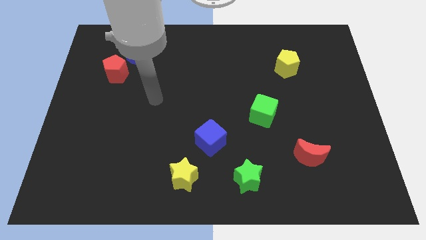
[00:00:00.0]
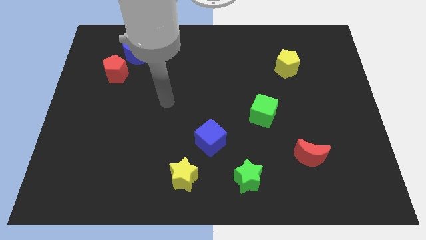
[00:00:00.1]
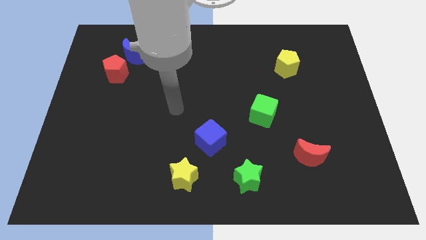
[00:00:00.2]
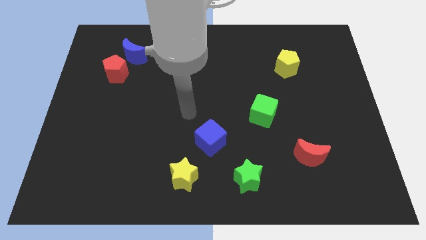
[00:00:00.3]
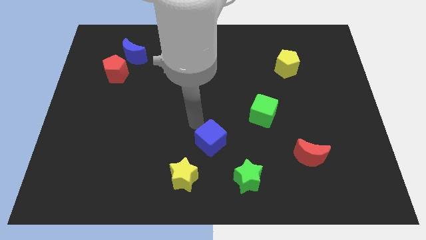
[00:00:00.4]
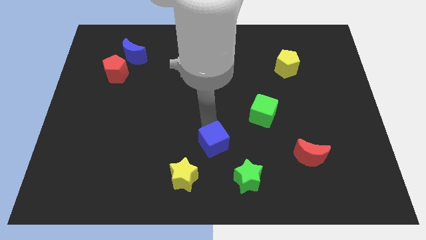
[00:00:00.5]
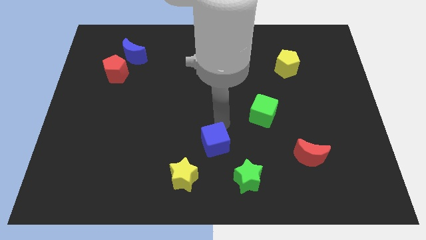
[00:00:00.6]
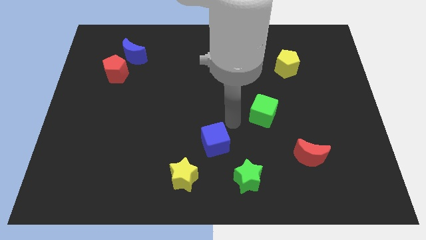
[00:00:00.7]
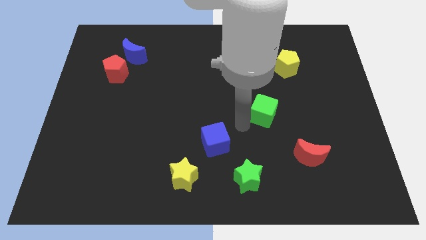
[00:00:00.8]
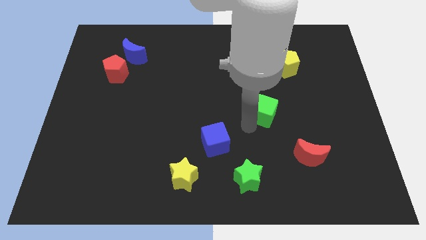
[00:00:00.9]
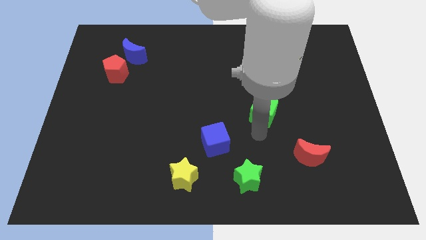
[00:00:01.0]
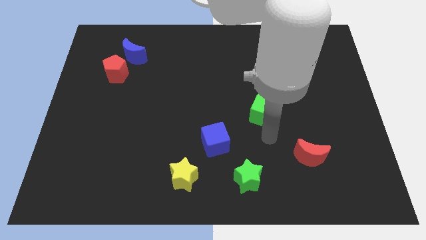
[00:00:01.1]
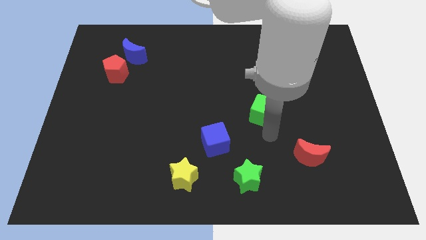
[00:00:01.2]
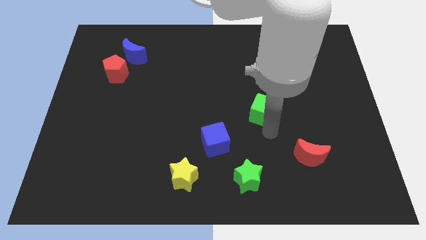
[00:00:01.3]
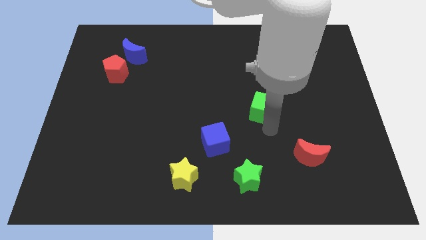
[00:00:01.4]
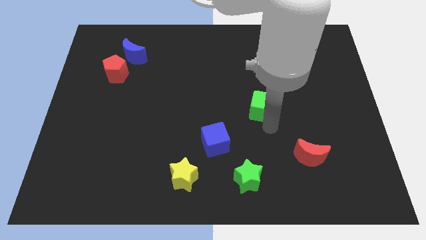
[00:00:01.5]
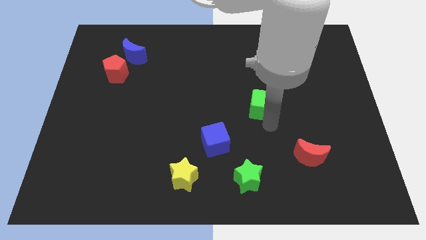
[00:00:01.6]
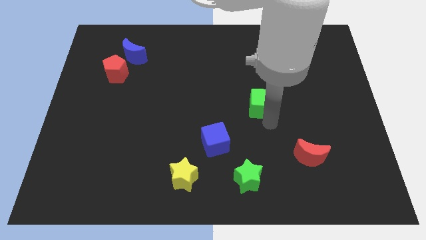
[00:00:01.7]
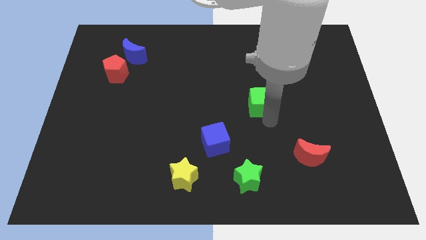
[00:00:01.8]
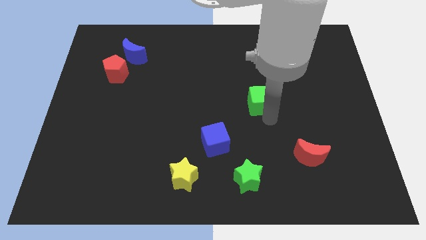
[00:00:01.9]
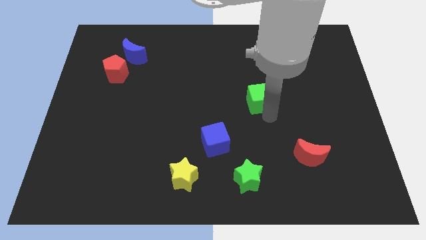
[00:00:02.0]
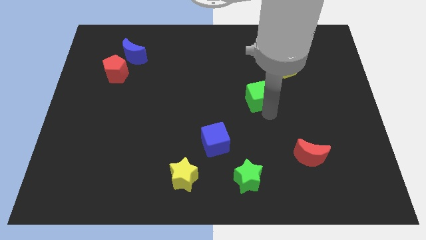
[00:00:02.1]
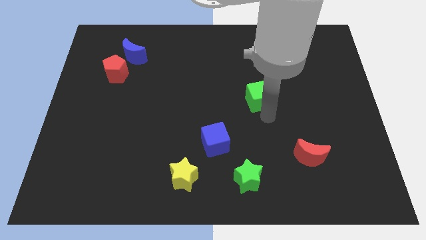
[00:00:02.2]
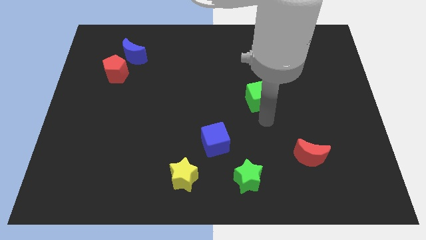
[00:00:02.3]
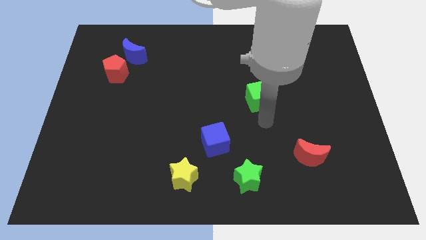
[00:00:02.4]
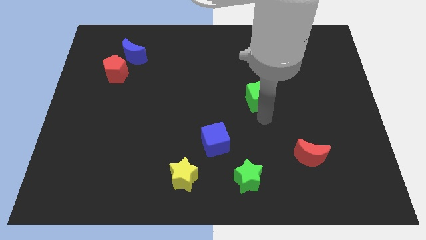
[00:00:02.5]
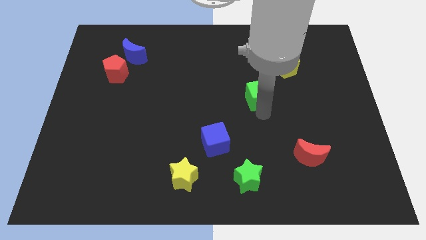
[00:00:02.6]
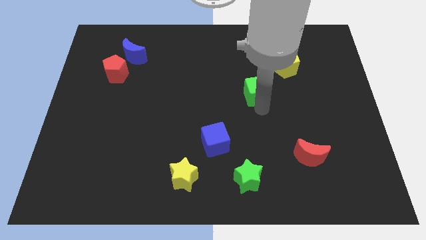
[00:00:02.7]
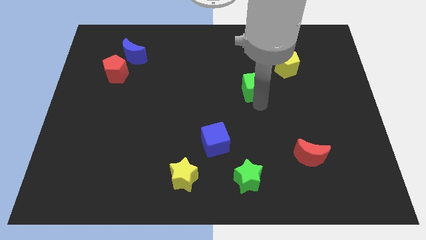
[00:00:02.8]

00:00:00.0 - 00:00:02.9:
slide the green cube somewhat up

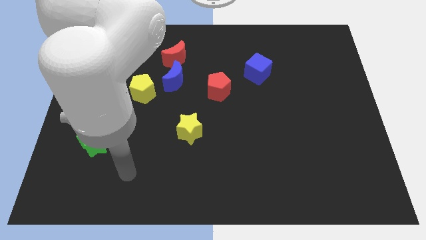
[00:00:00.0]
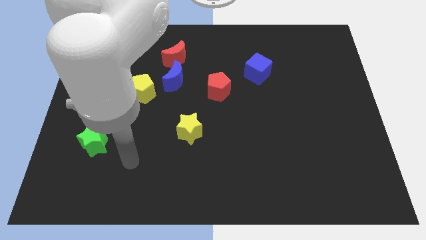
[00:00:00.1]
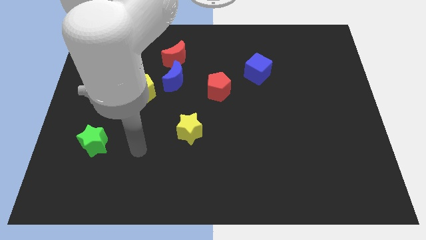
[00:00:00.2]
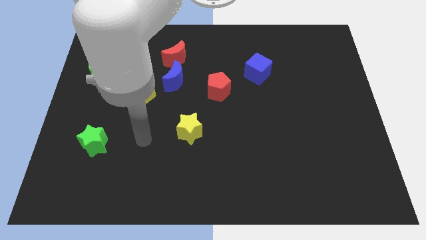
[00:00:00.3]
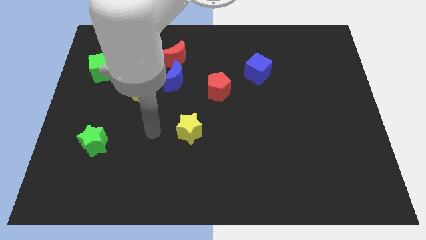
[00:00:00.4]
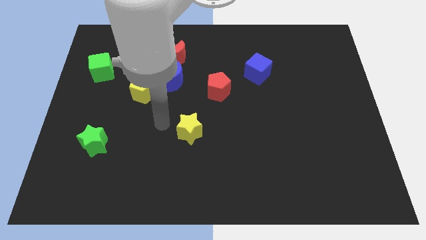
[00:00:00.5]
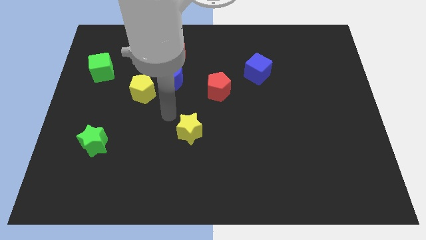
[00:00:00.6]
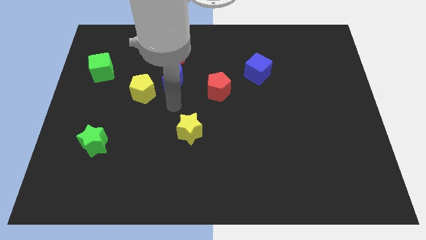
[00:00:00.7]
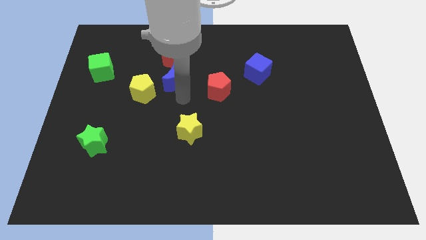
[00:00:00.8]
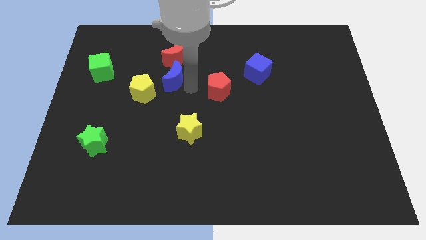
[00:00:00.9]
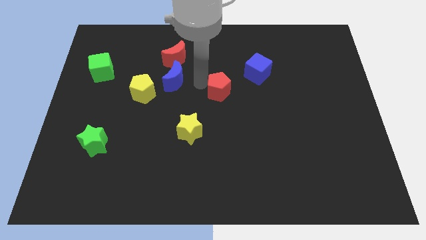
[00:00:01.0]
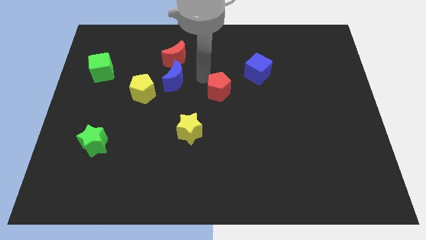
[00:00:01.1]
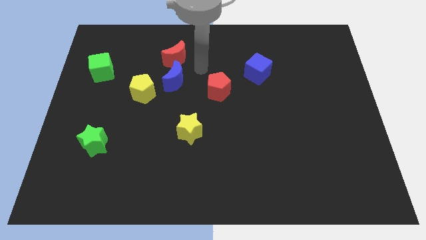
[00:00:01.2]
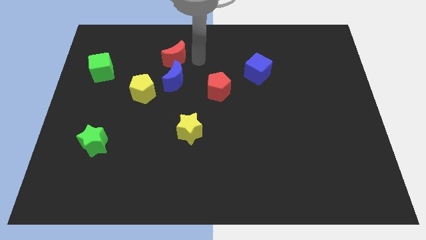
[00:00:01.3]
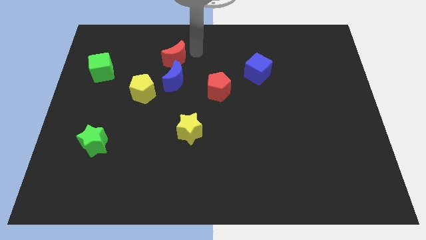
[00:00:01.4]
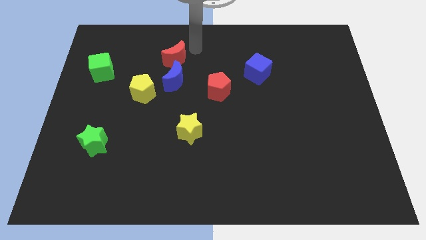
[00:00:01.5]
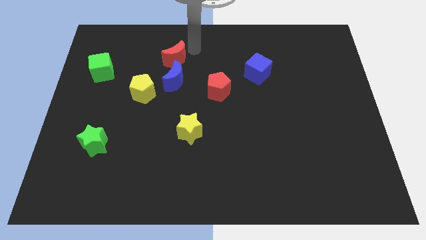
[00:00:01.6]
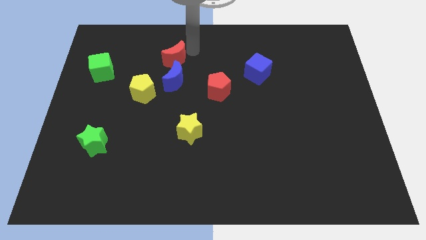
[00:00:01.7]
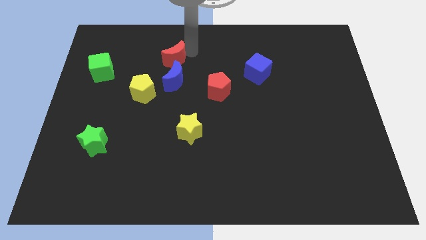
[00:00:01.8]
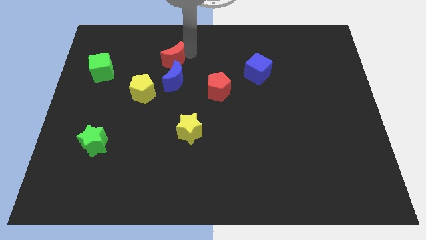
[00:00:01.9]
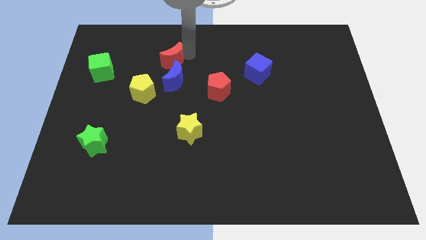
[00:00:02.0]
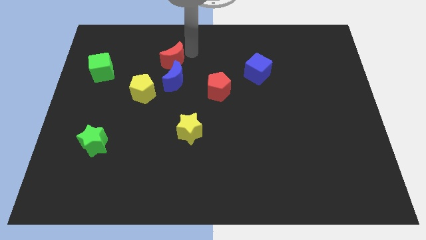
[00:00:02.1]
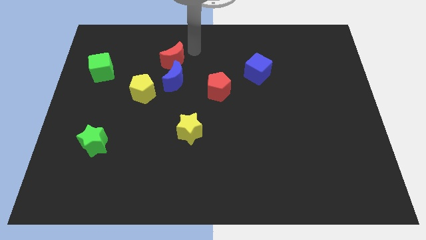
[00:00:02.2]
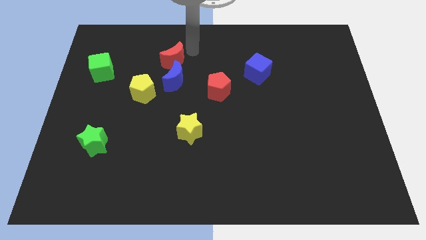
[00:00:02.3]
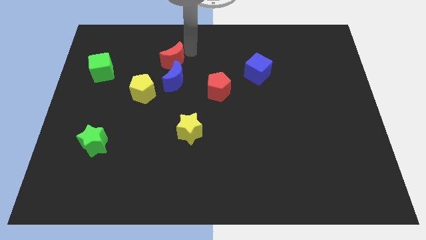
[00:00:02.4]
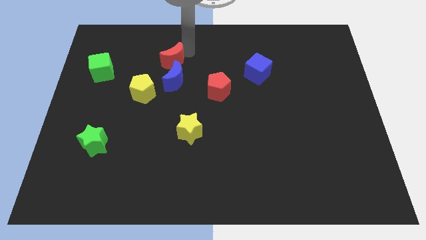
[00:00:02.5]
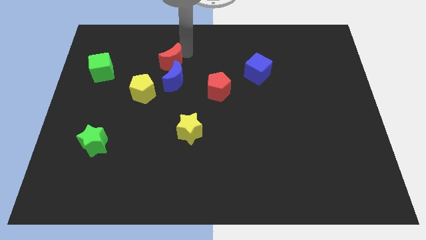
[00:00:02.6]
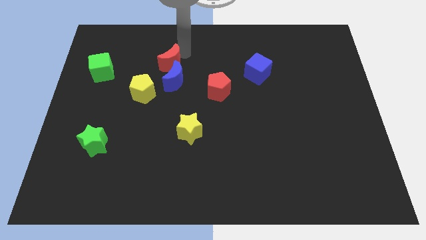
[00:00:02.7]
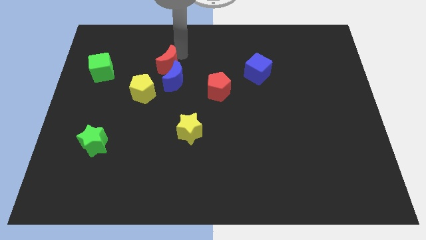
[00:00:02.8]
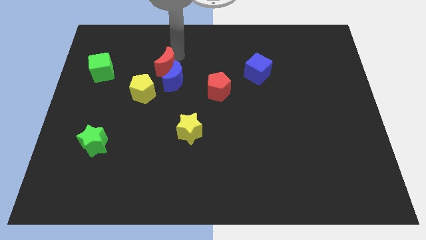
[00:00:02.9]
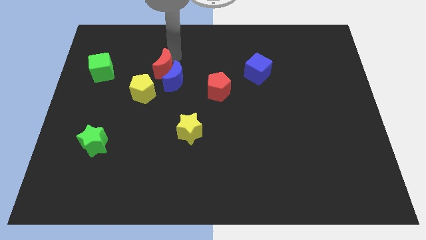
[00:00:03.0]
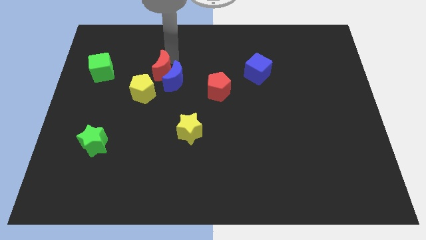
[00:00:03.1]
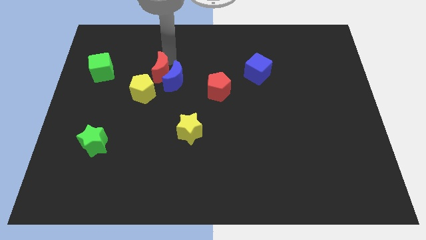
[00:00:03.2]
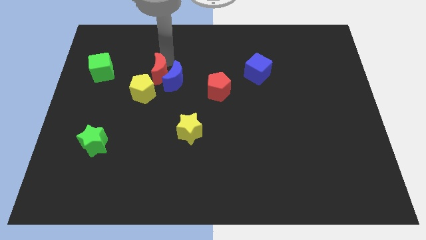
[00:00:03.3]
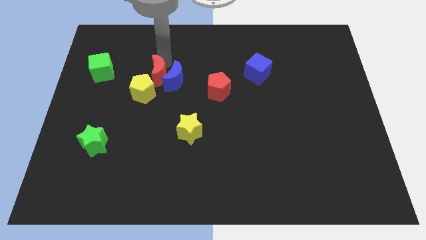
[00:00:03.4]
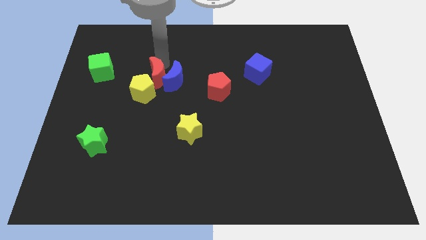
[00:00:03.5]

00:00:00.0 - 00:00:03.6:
slightly slide the red moon diagonally downwards and left

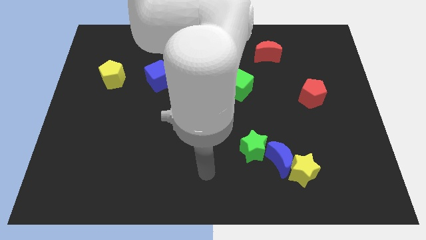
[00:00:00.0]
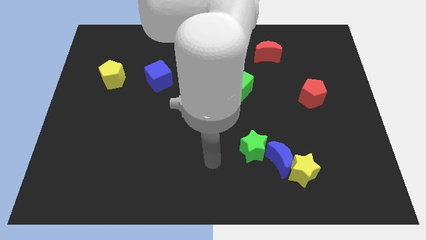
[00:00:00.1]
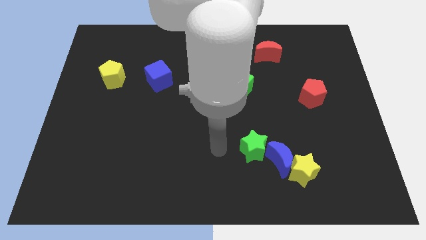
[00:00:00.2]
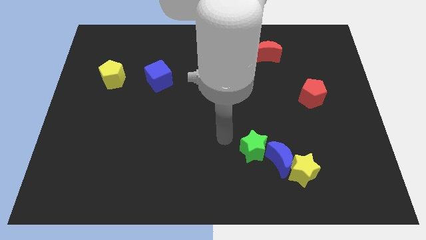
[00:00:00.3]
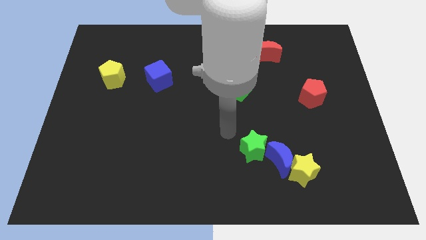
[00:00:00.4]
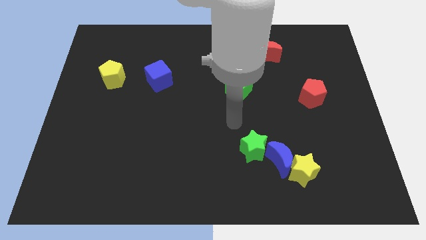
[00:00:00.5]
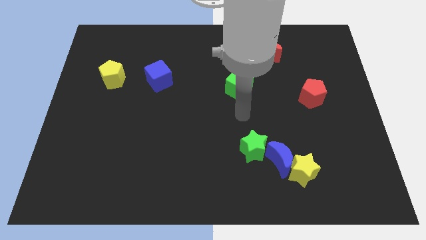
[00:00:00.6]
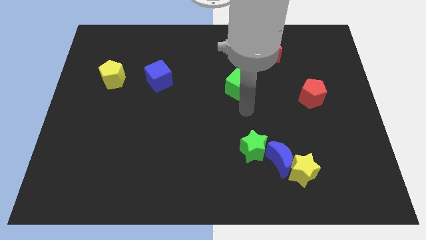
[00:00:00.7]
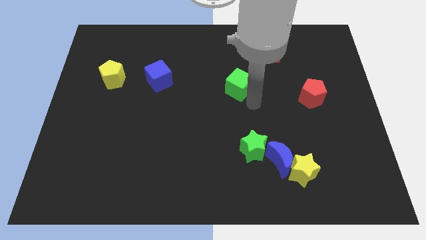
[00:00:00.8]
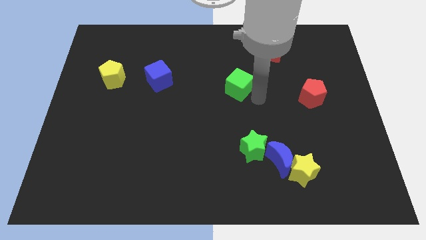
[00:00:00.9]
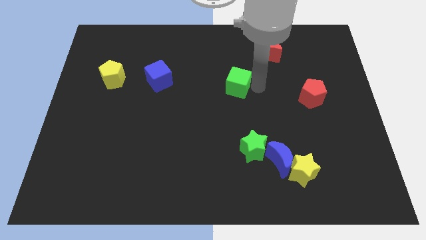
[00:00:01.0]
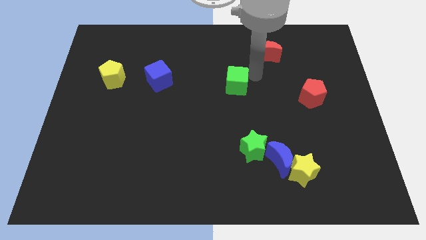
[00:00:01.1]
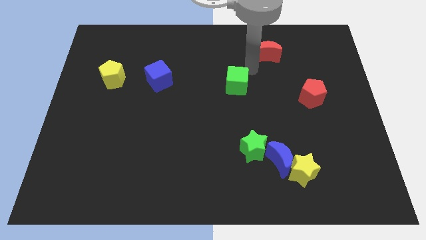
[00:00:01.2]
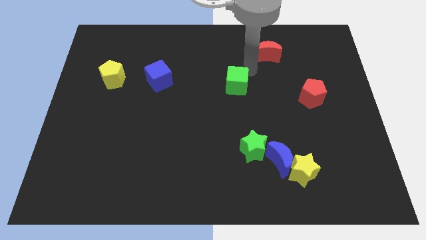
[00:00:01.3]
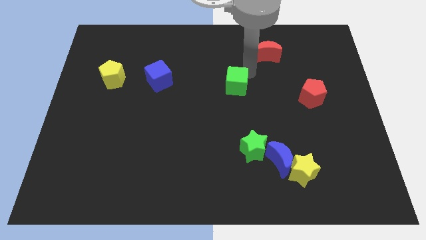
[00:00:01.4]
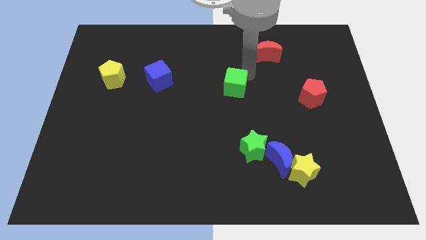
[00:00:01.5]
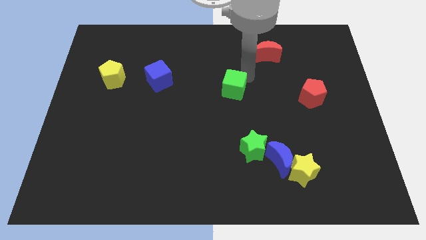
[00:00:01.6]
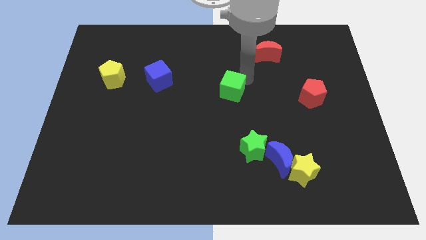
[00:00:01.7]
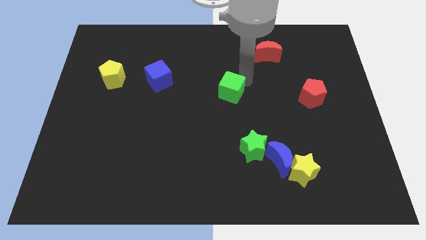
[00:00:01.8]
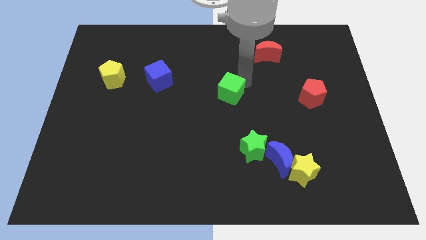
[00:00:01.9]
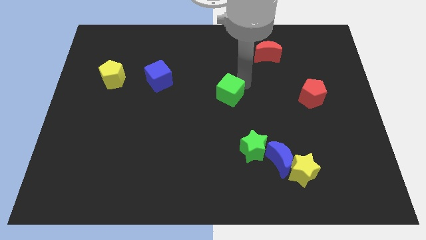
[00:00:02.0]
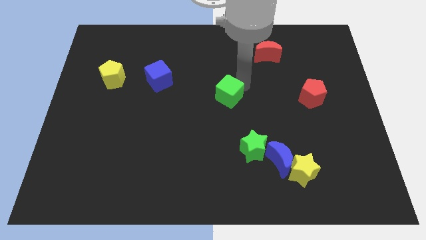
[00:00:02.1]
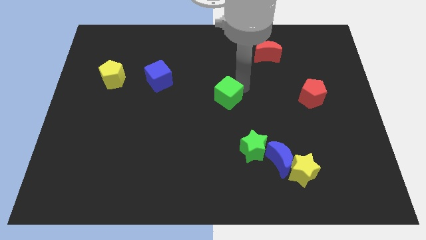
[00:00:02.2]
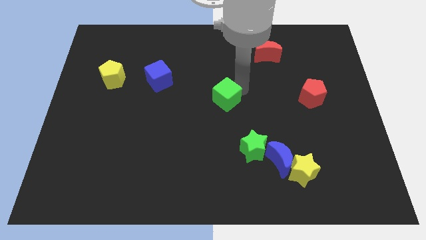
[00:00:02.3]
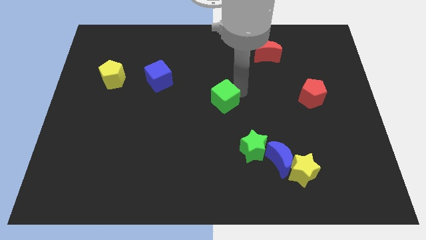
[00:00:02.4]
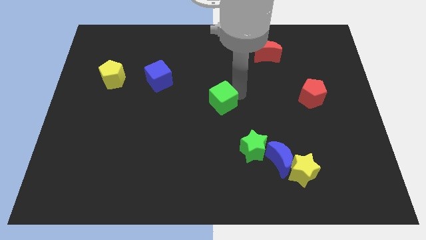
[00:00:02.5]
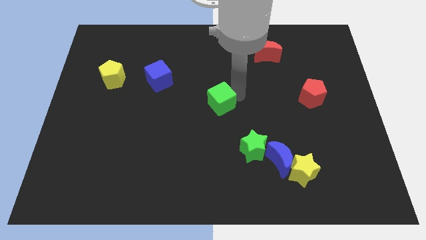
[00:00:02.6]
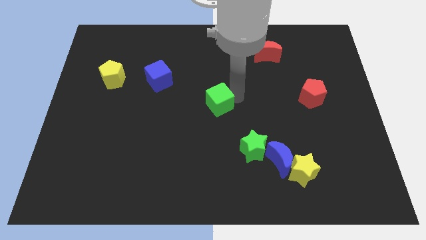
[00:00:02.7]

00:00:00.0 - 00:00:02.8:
slightly move the green cube diagonally downwards and to the left
